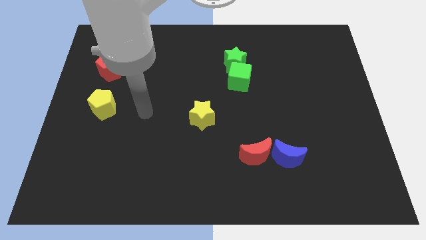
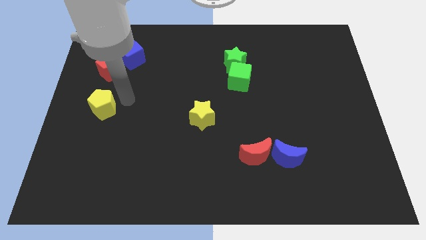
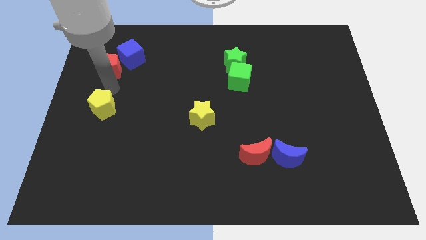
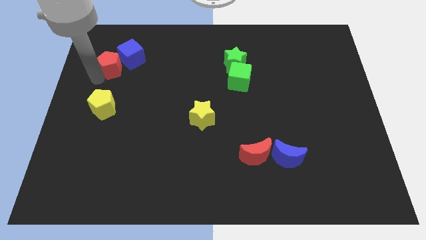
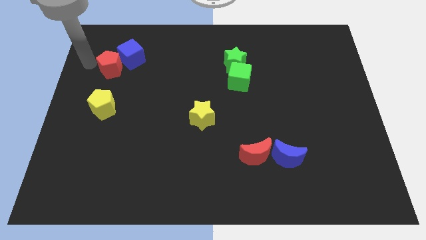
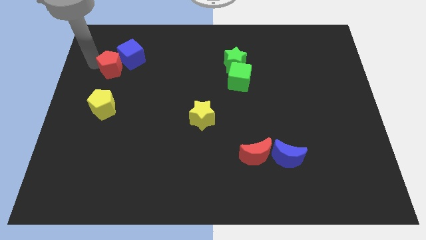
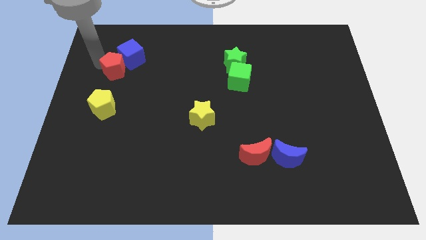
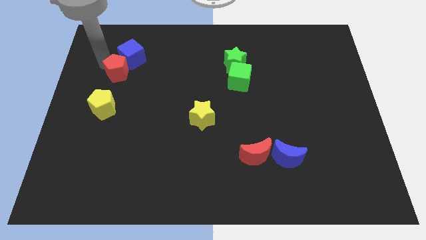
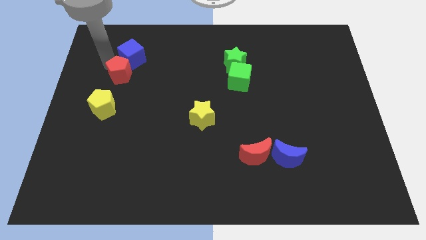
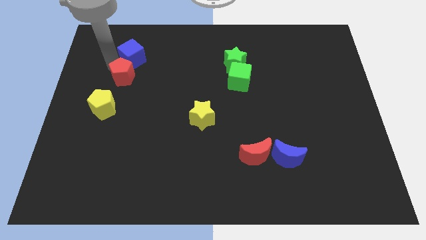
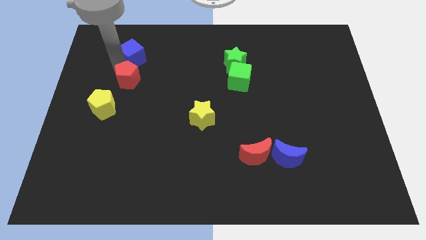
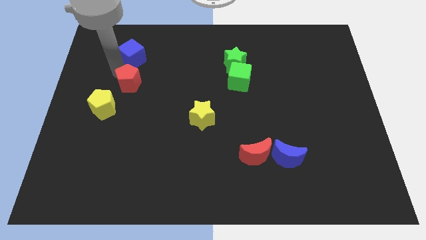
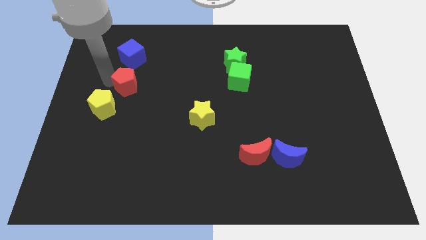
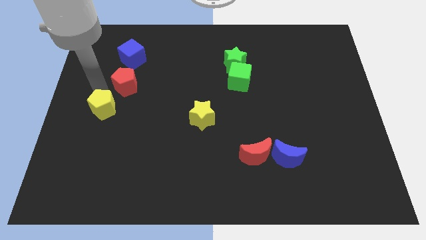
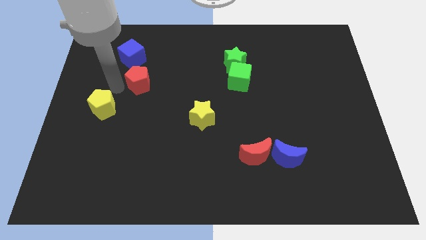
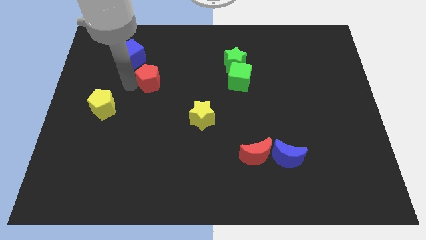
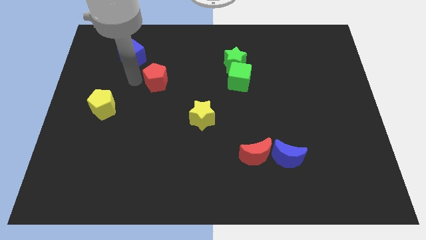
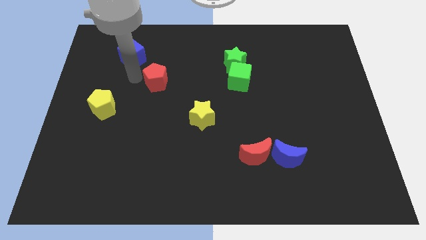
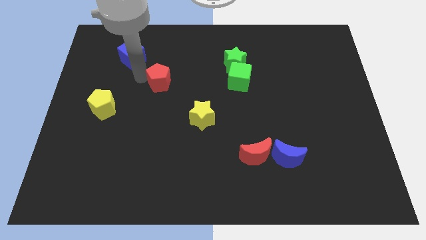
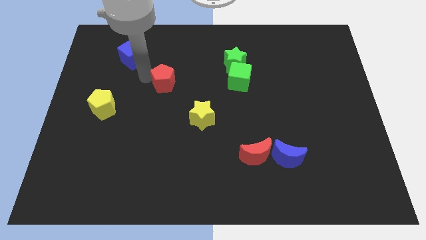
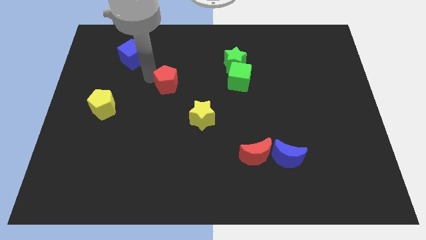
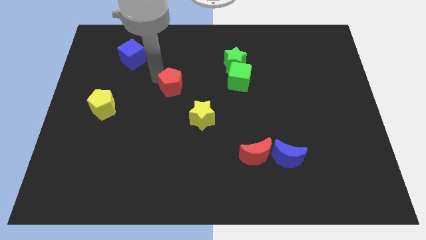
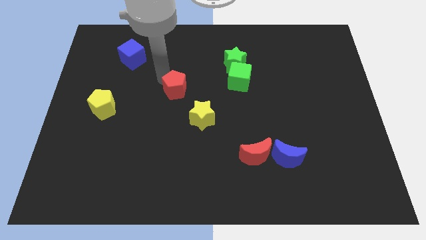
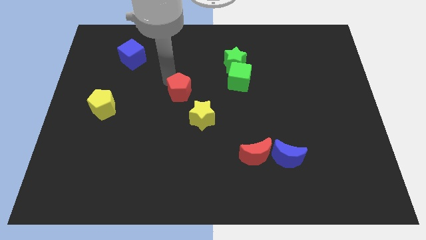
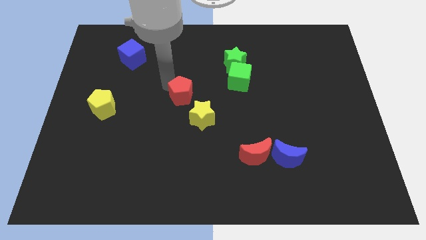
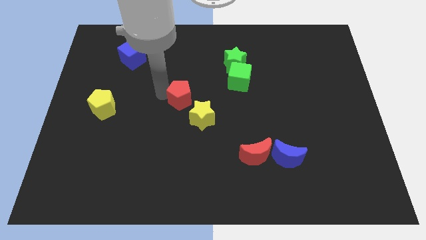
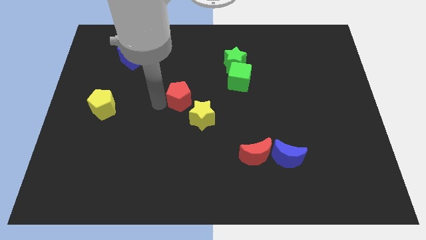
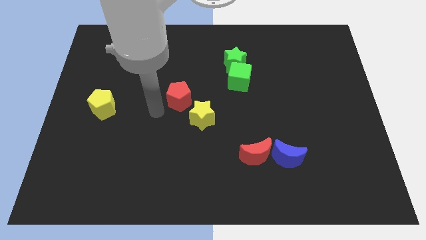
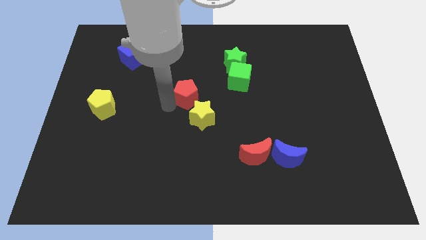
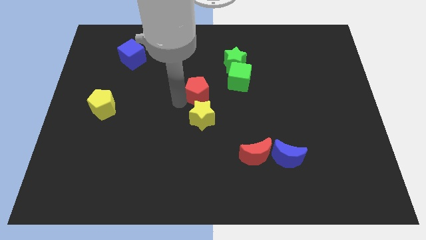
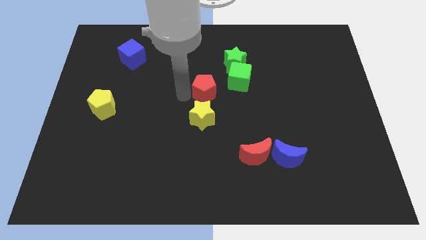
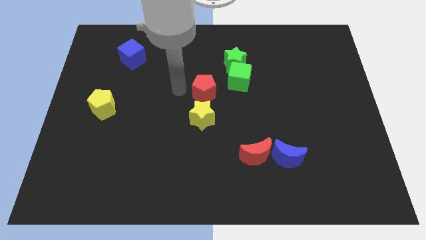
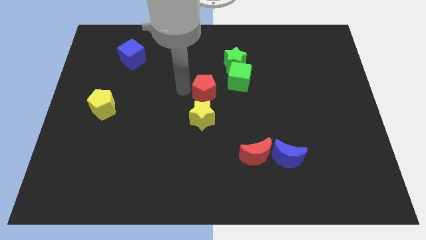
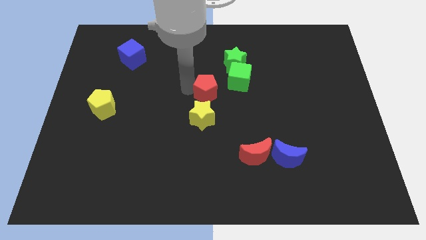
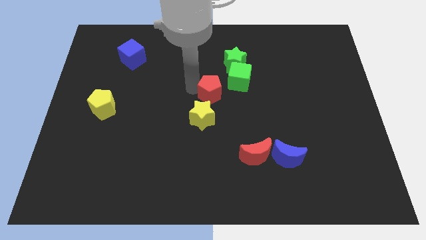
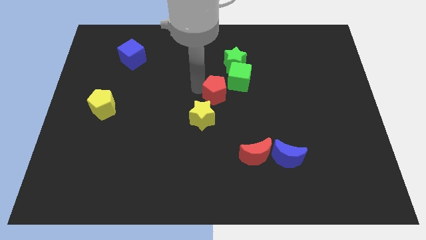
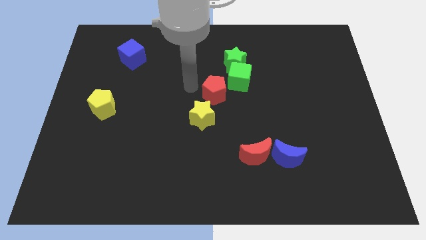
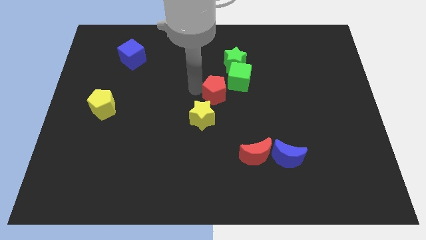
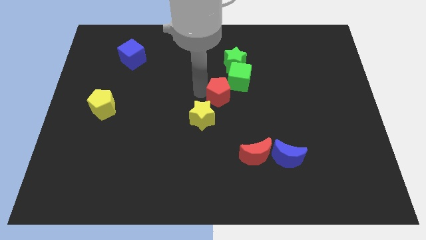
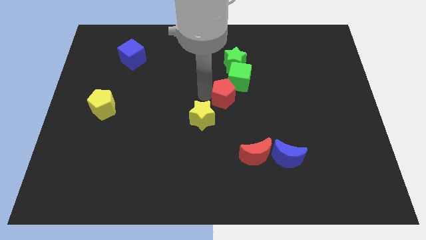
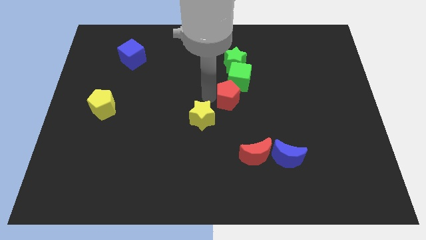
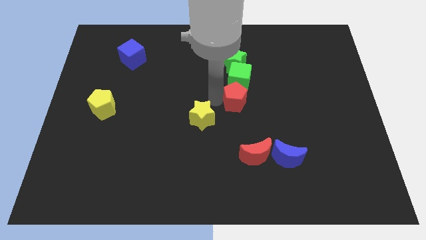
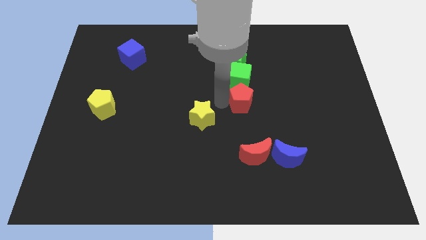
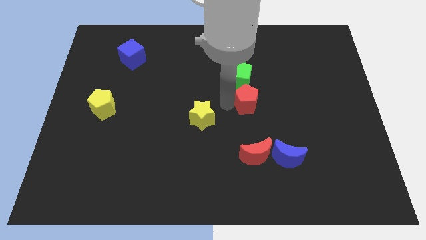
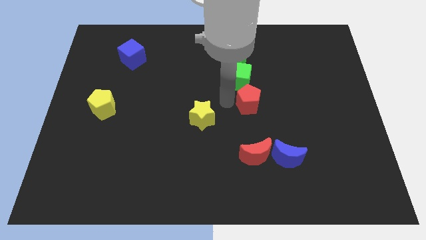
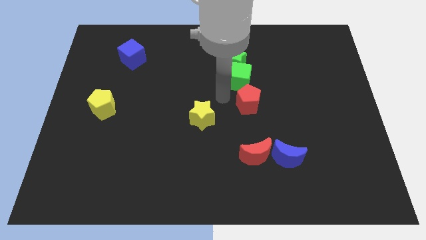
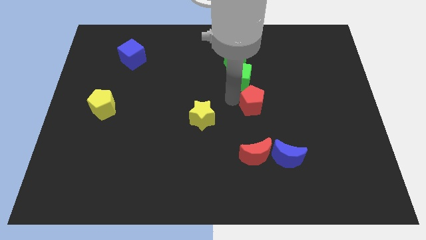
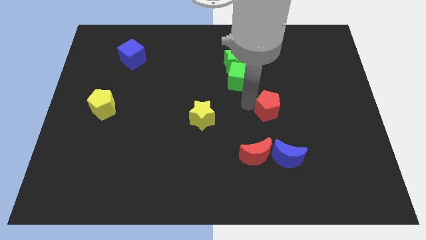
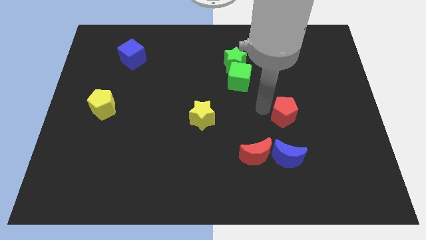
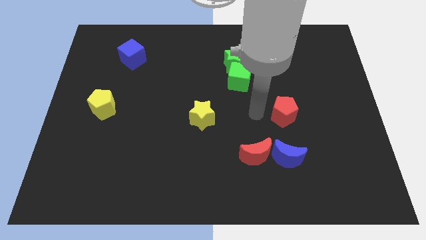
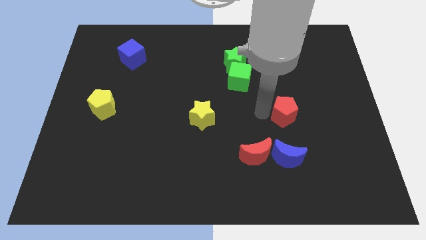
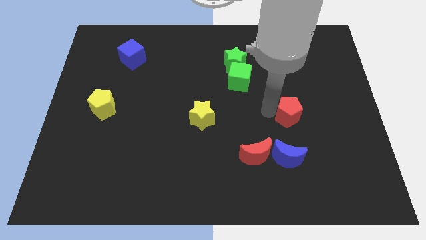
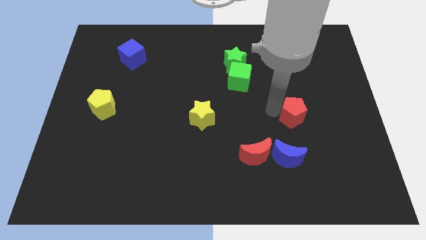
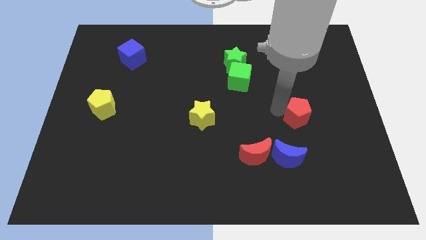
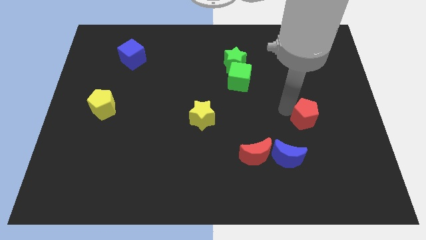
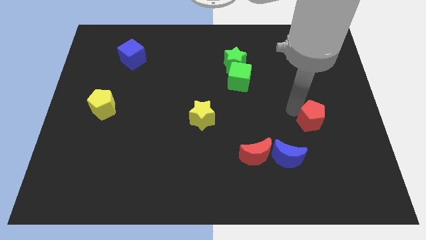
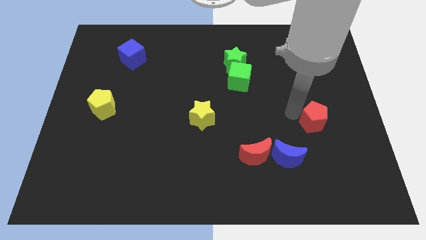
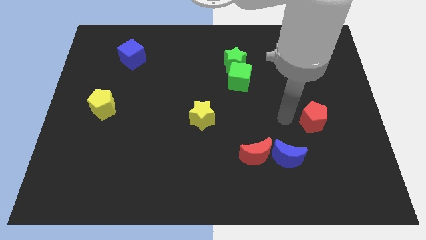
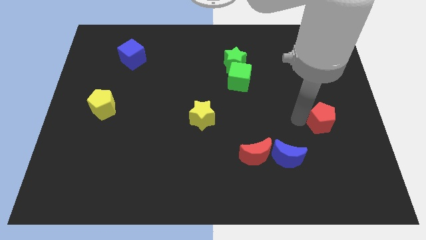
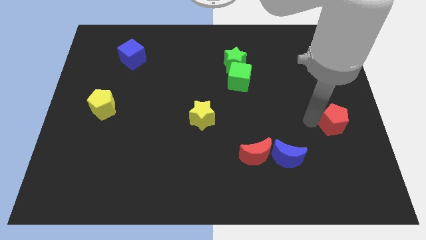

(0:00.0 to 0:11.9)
move the red pentagon to the right side of the board
